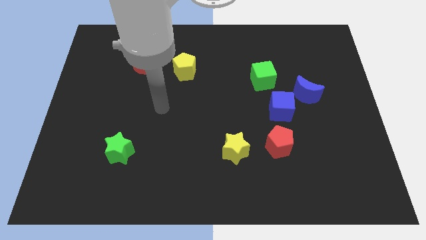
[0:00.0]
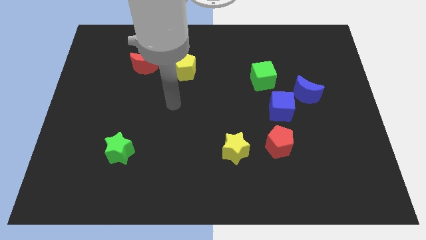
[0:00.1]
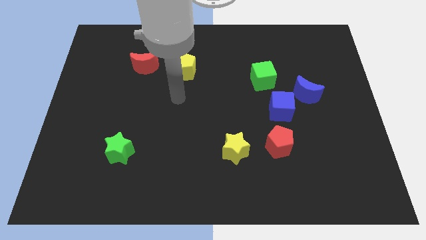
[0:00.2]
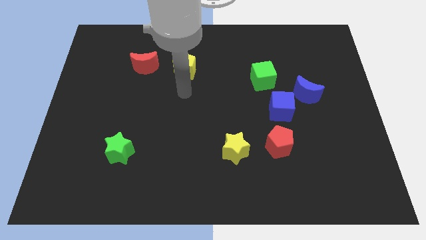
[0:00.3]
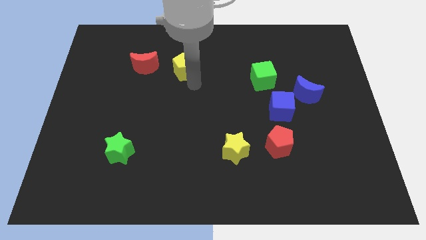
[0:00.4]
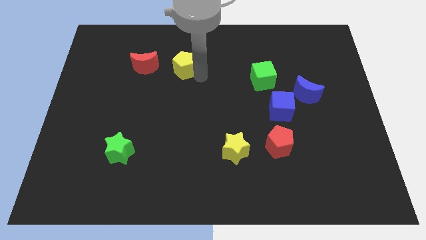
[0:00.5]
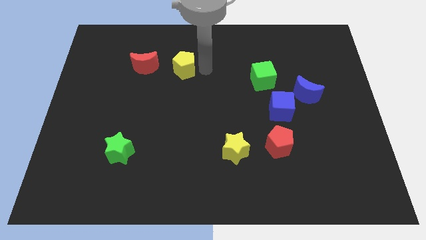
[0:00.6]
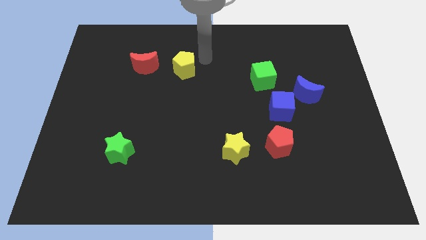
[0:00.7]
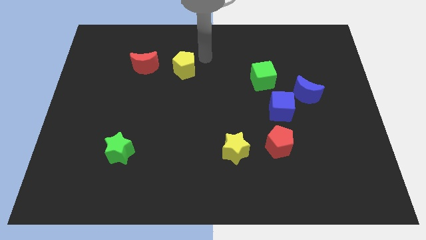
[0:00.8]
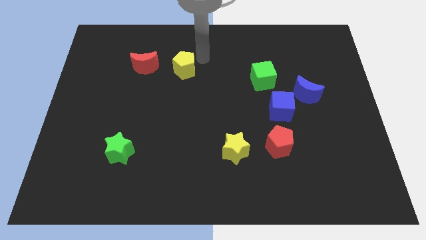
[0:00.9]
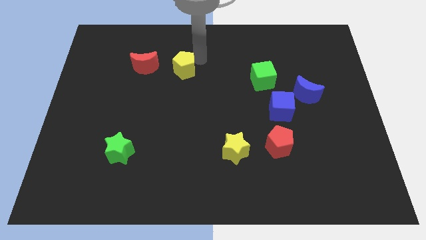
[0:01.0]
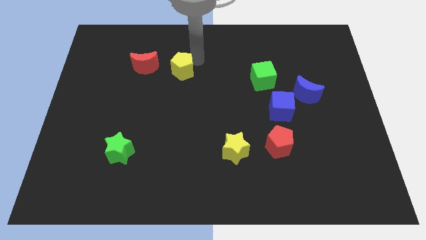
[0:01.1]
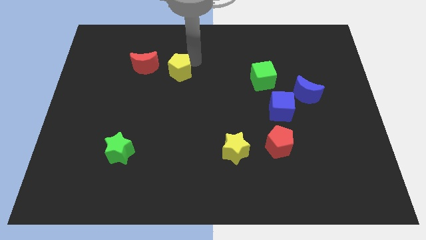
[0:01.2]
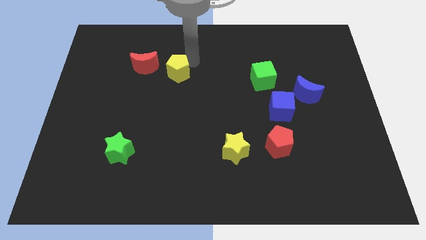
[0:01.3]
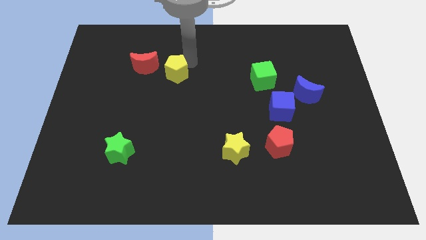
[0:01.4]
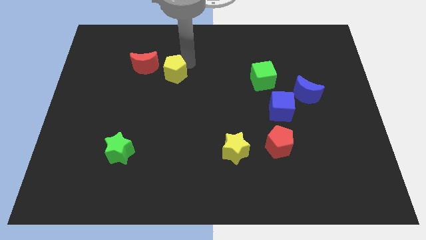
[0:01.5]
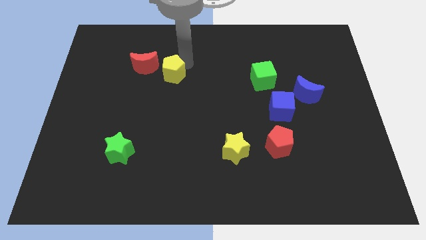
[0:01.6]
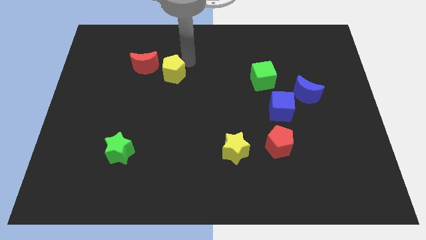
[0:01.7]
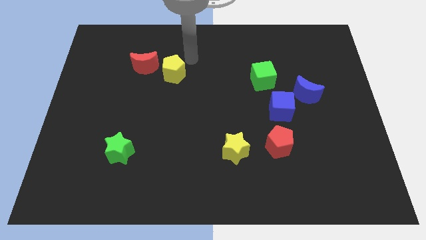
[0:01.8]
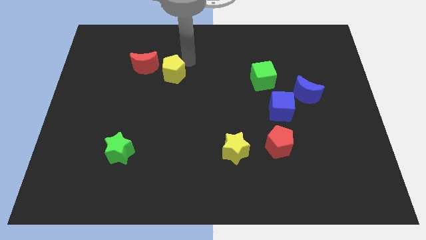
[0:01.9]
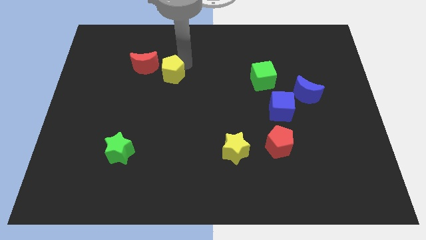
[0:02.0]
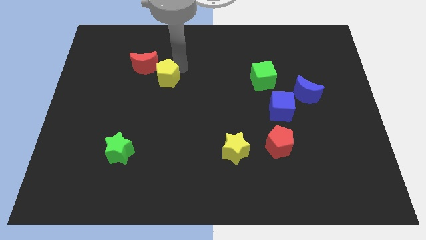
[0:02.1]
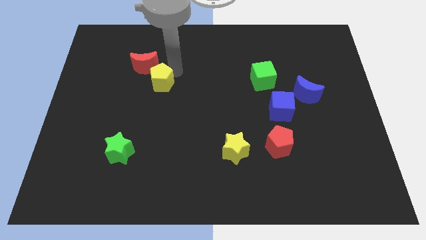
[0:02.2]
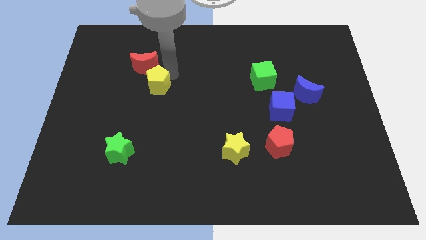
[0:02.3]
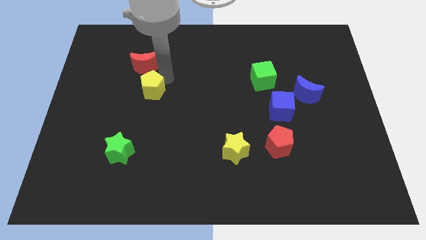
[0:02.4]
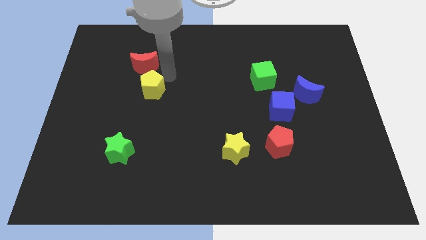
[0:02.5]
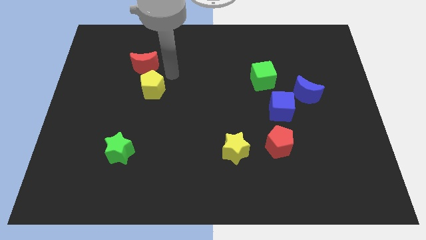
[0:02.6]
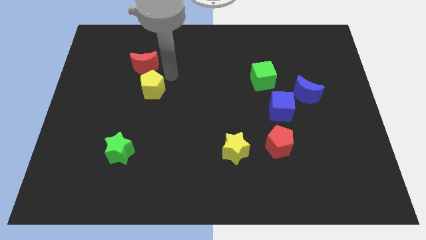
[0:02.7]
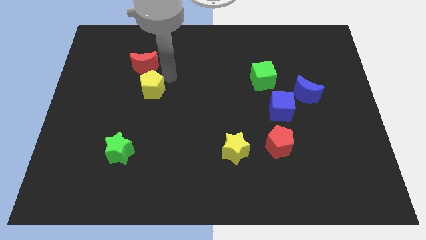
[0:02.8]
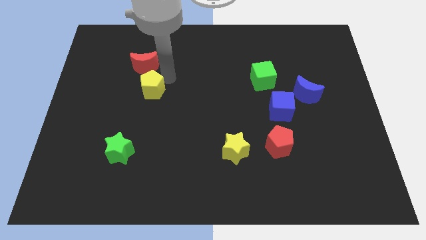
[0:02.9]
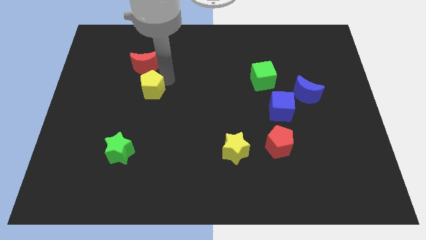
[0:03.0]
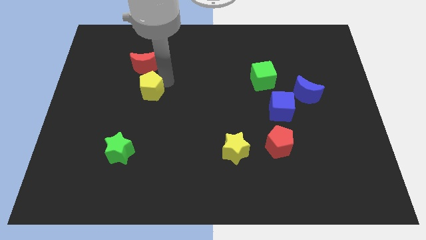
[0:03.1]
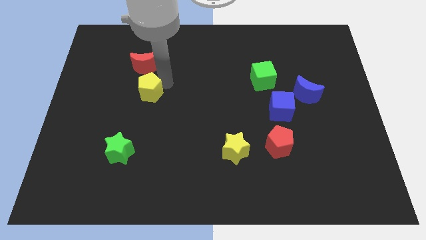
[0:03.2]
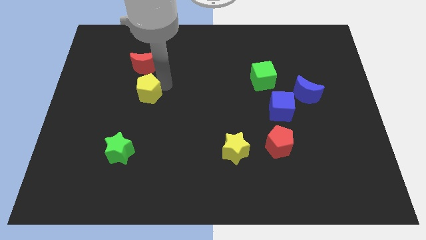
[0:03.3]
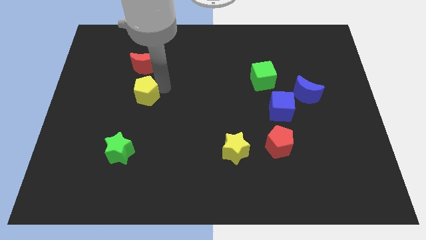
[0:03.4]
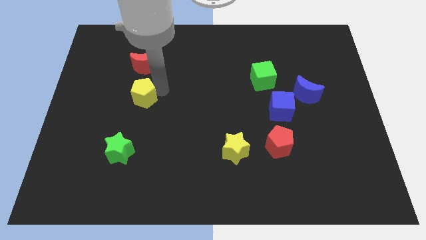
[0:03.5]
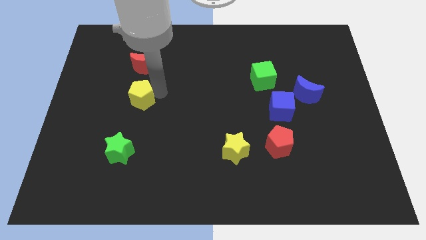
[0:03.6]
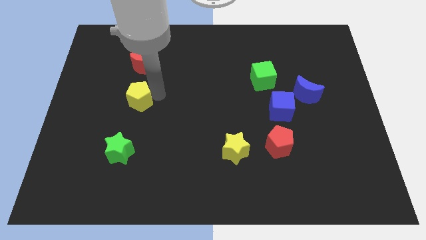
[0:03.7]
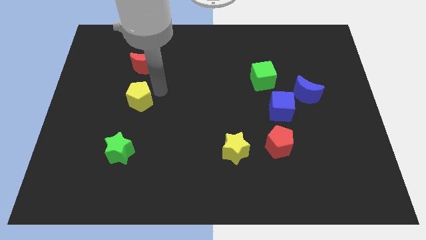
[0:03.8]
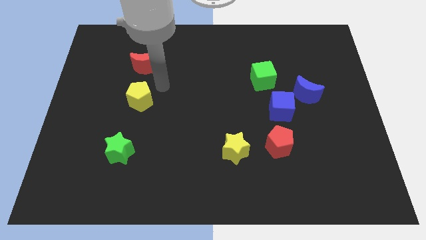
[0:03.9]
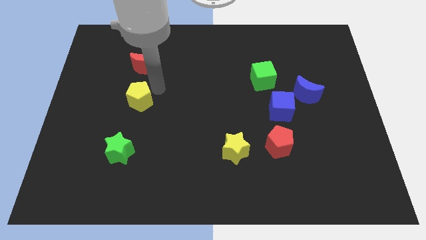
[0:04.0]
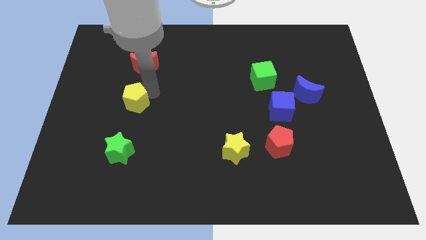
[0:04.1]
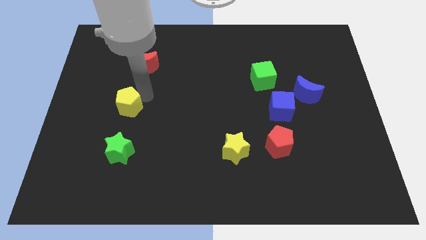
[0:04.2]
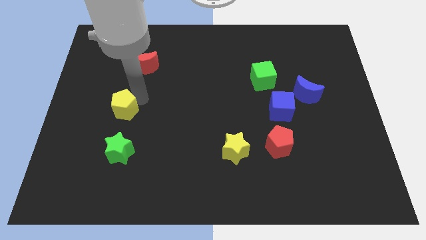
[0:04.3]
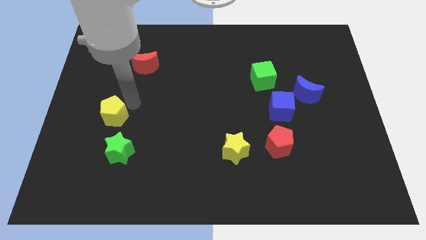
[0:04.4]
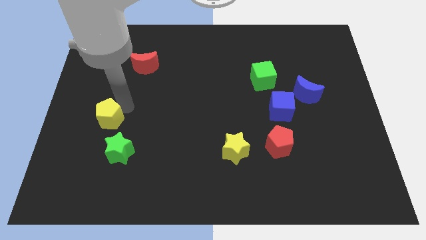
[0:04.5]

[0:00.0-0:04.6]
put the yellow pentagon to the top left of the green star

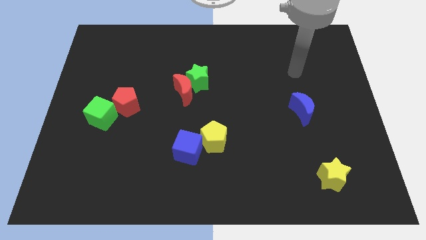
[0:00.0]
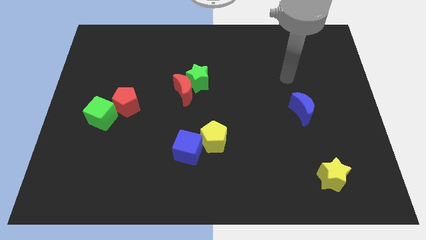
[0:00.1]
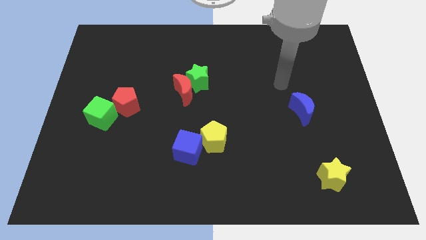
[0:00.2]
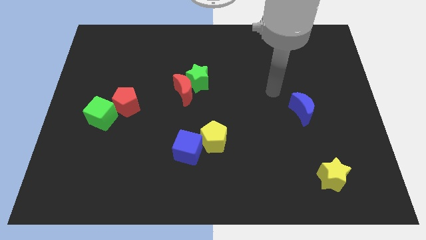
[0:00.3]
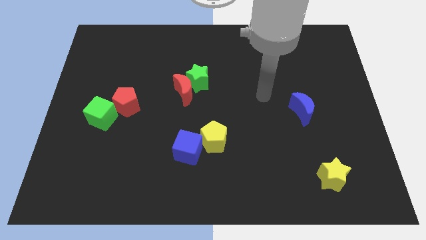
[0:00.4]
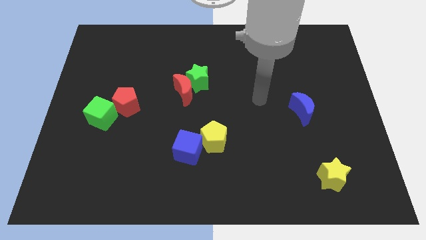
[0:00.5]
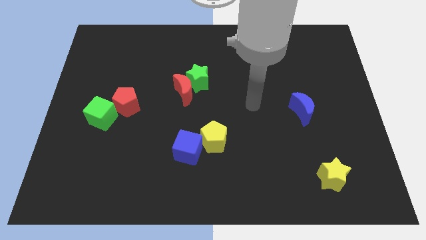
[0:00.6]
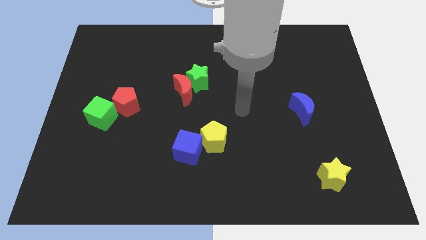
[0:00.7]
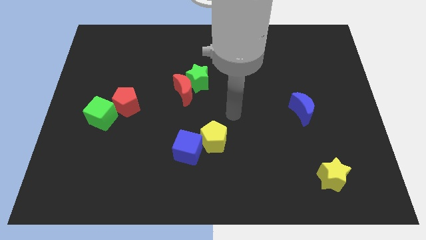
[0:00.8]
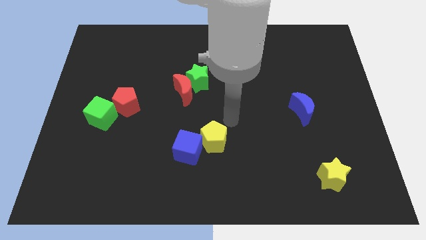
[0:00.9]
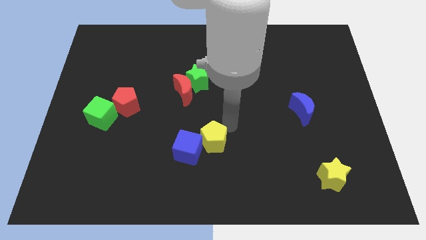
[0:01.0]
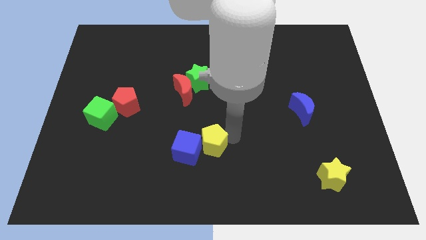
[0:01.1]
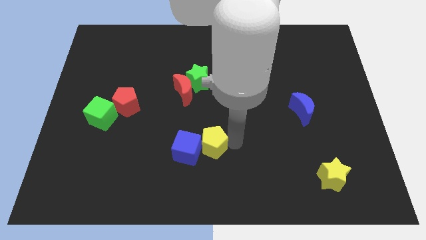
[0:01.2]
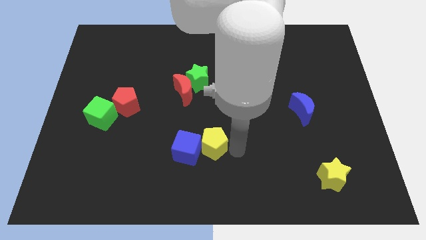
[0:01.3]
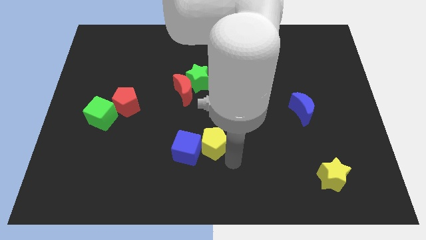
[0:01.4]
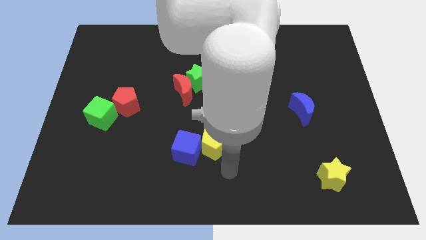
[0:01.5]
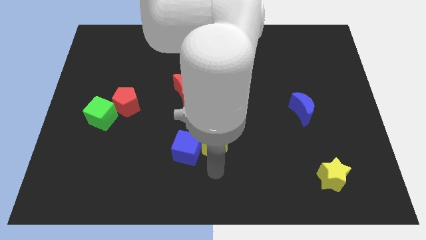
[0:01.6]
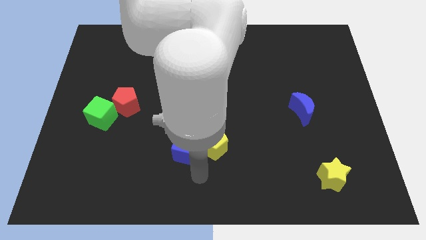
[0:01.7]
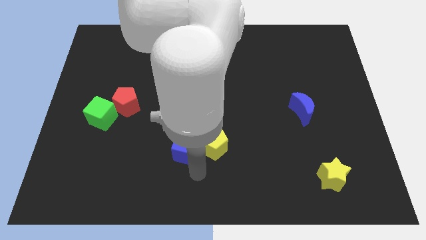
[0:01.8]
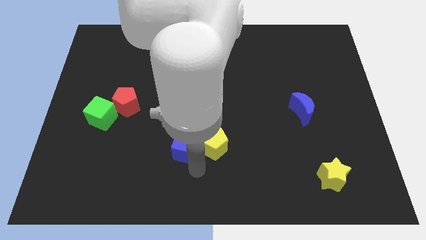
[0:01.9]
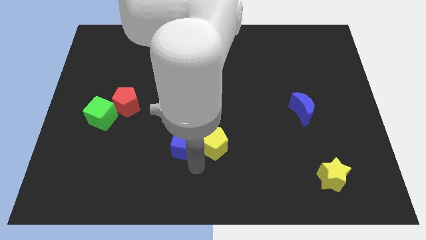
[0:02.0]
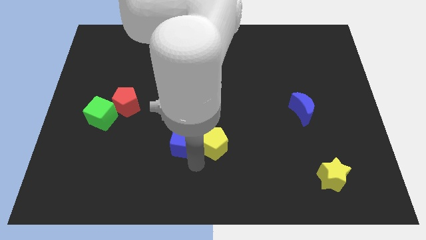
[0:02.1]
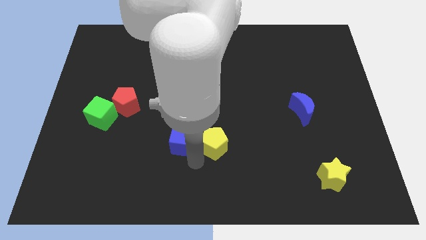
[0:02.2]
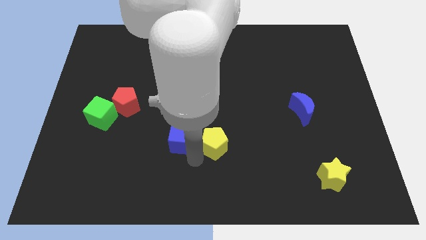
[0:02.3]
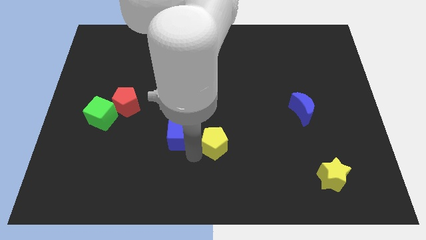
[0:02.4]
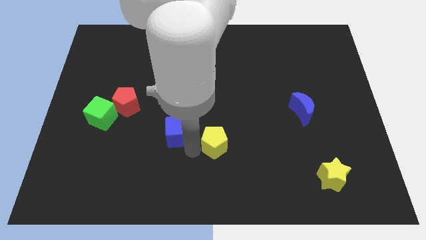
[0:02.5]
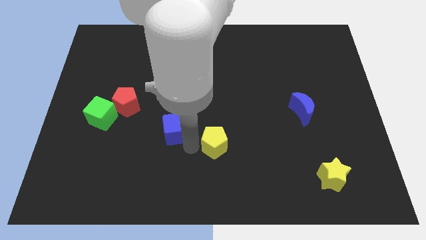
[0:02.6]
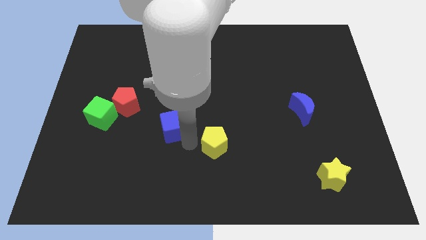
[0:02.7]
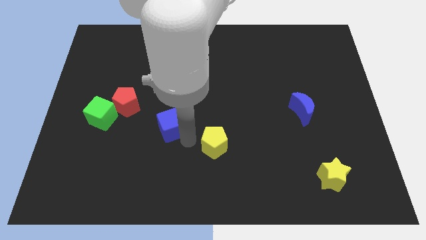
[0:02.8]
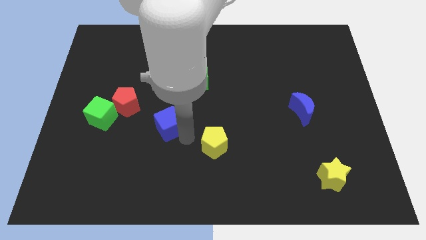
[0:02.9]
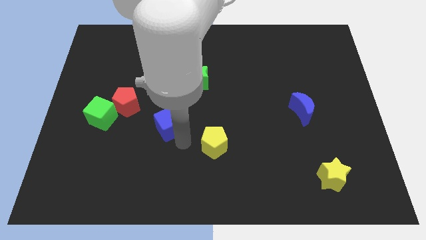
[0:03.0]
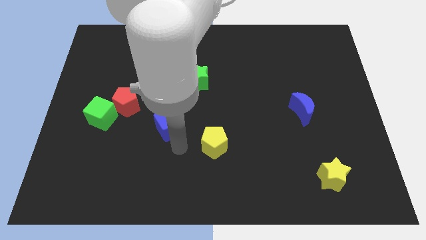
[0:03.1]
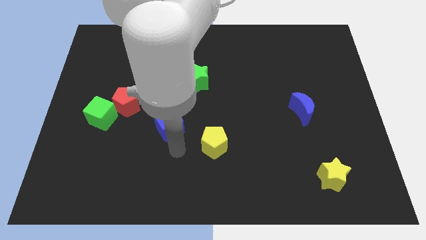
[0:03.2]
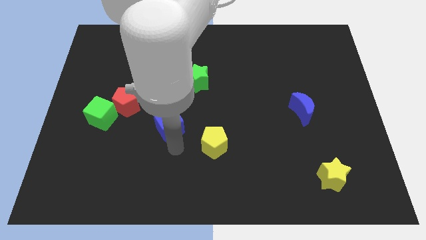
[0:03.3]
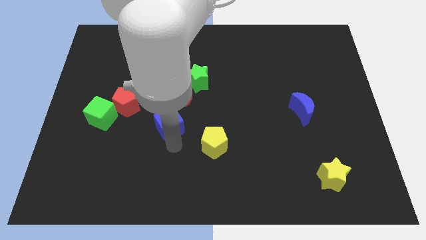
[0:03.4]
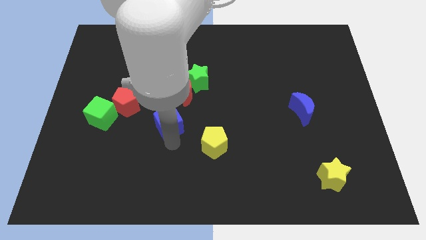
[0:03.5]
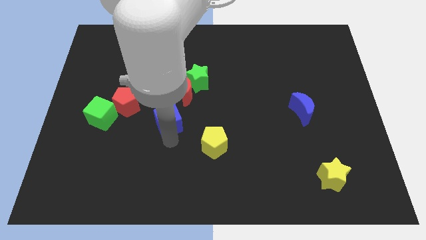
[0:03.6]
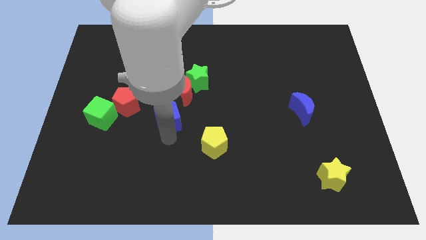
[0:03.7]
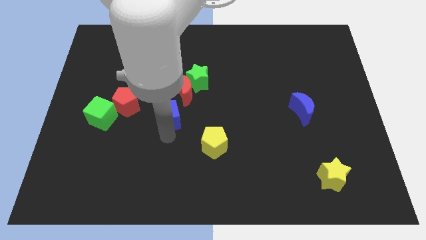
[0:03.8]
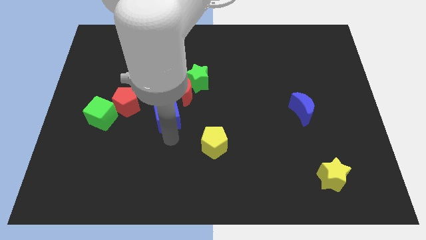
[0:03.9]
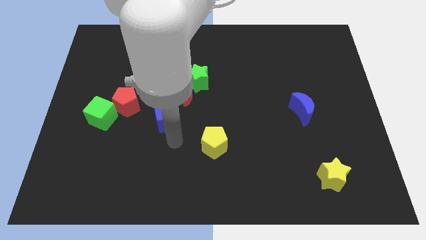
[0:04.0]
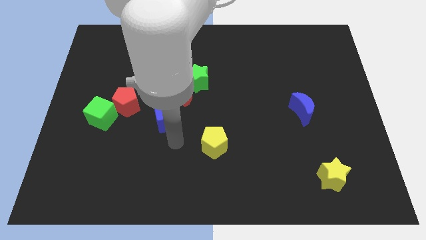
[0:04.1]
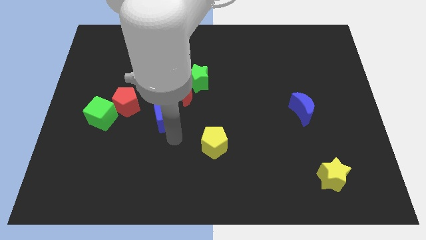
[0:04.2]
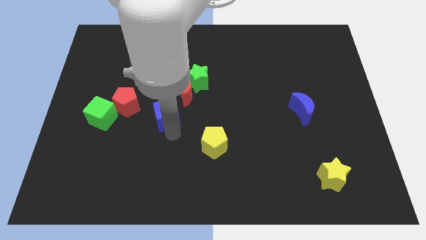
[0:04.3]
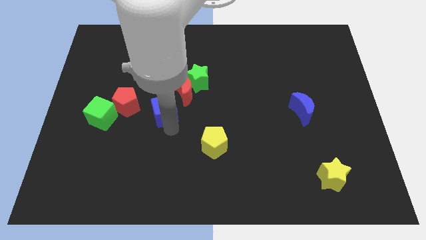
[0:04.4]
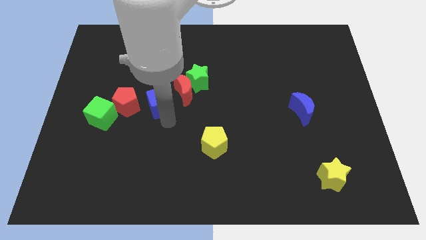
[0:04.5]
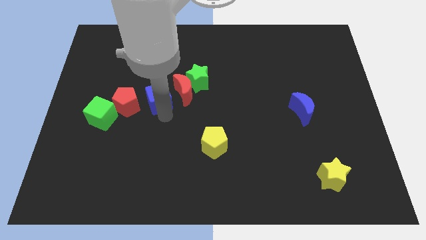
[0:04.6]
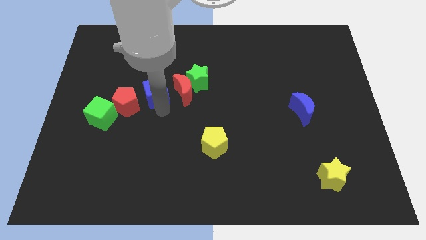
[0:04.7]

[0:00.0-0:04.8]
push the blue cube to the left side of the green star
